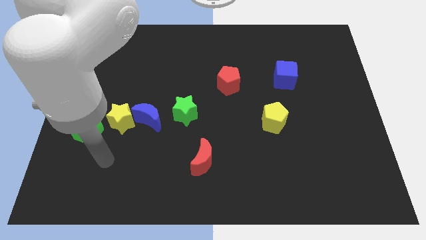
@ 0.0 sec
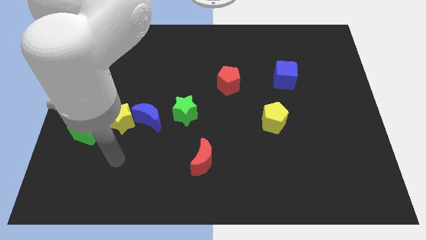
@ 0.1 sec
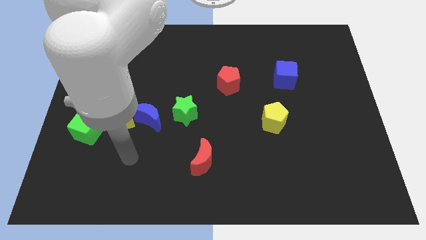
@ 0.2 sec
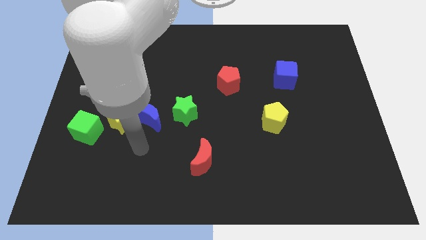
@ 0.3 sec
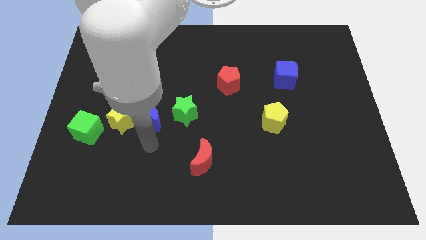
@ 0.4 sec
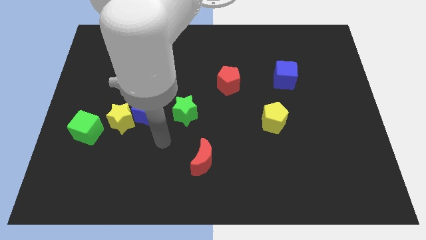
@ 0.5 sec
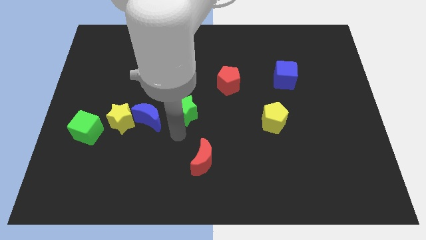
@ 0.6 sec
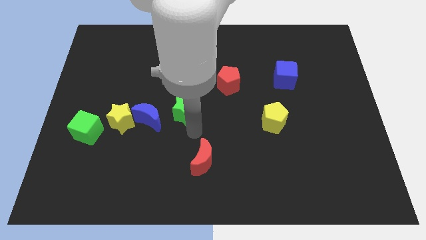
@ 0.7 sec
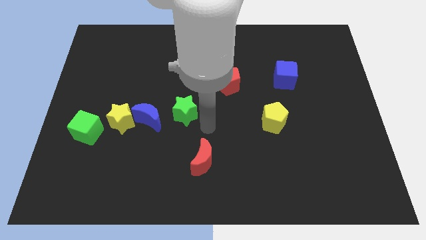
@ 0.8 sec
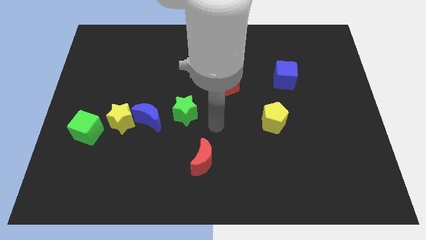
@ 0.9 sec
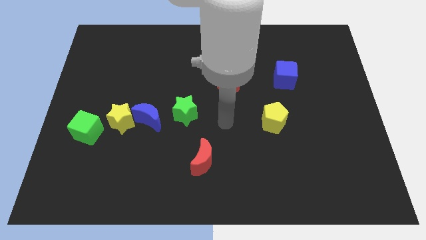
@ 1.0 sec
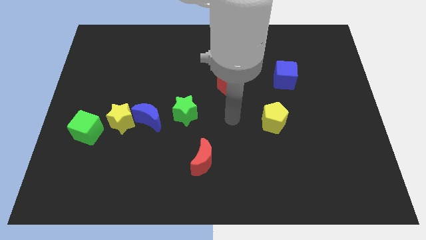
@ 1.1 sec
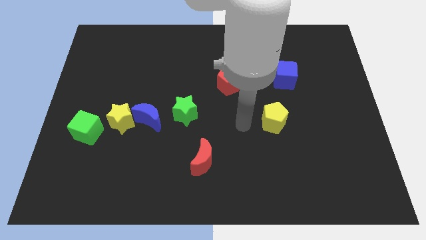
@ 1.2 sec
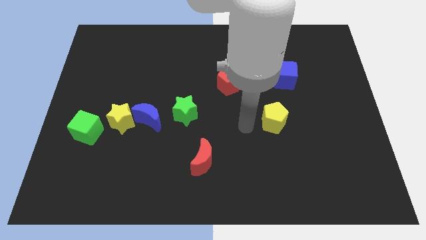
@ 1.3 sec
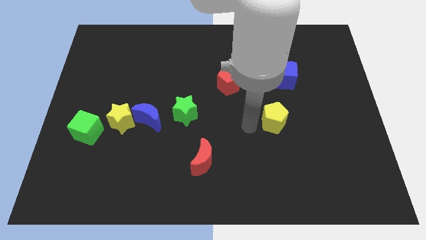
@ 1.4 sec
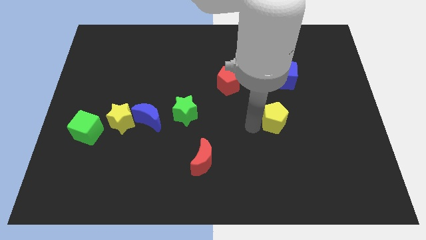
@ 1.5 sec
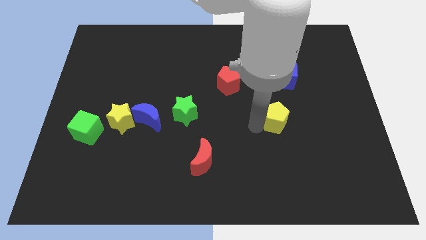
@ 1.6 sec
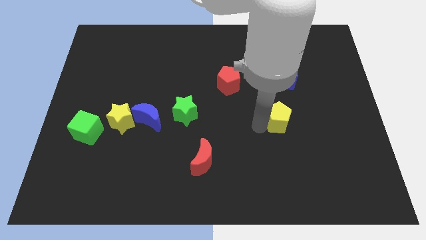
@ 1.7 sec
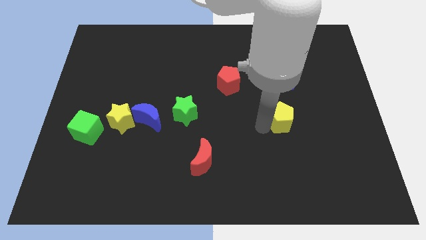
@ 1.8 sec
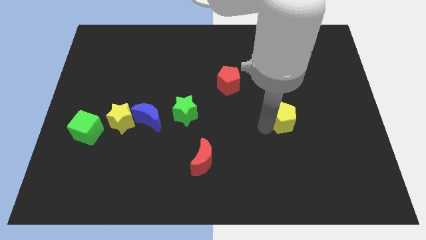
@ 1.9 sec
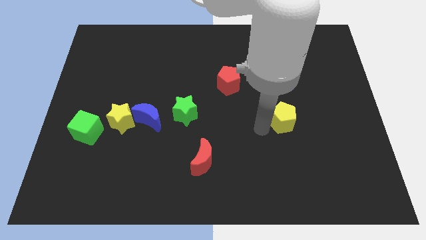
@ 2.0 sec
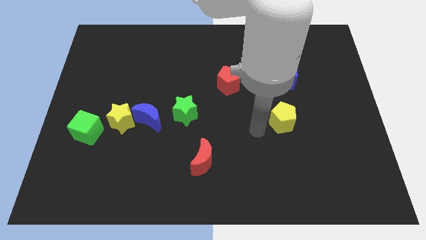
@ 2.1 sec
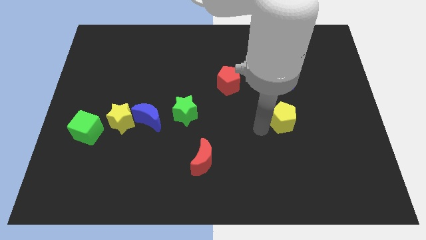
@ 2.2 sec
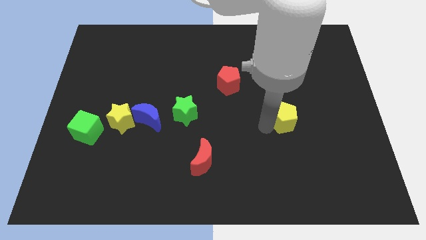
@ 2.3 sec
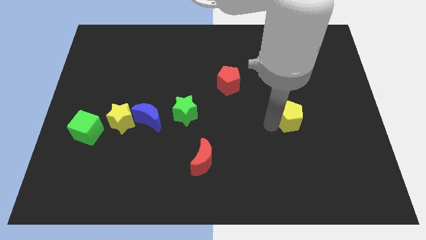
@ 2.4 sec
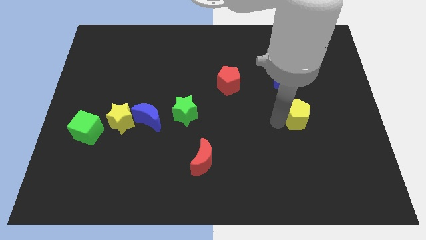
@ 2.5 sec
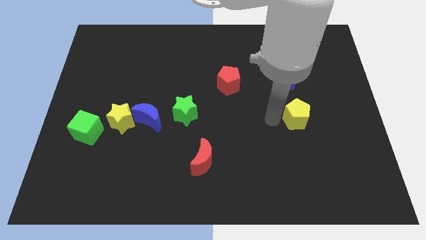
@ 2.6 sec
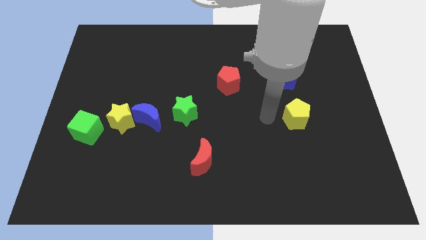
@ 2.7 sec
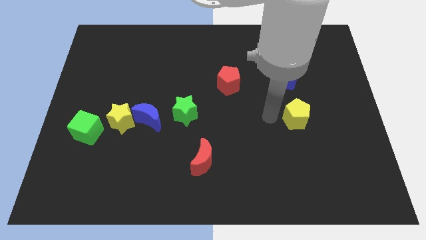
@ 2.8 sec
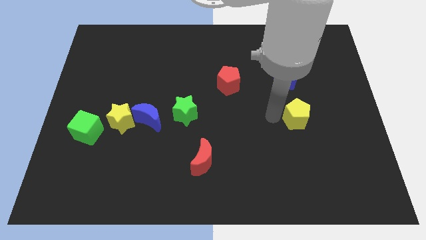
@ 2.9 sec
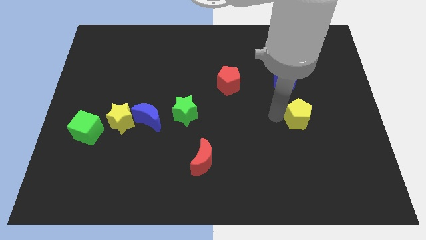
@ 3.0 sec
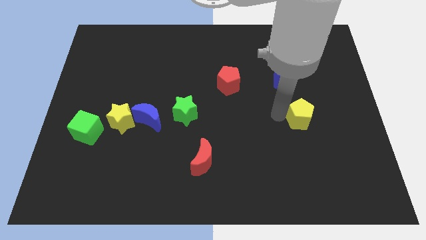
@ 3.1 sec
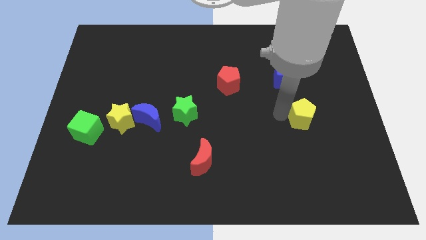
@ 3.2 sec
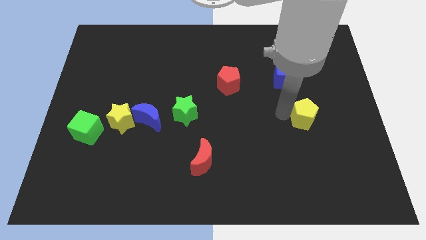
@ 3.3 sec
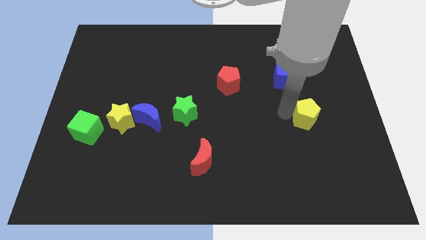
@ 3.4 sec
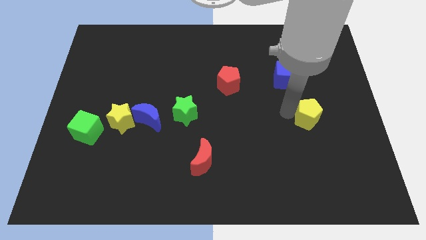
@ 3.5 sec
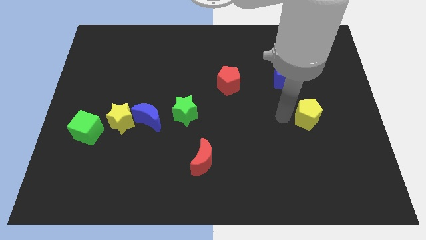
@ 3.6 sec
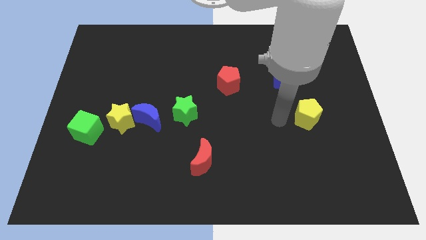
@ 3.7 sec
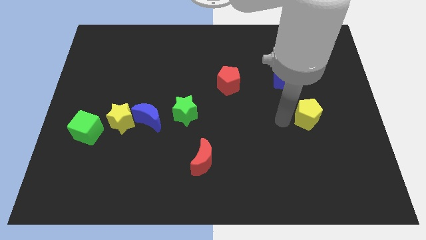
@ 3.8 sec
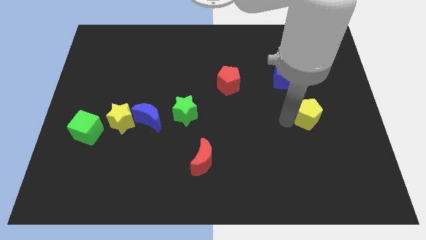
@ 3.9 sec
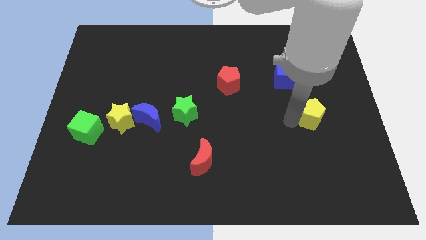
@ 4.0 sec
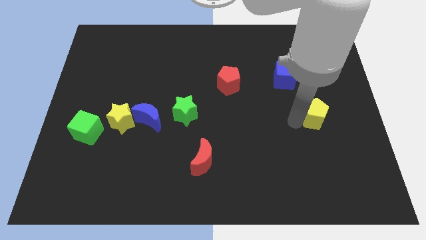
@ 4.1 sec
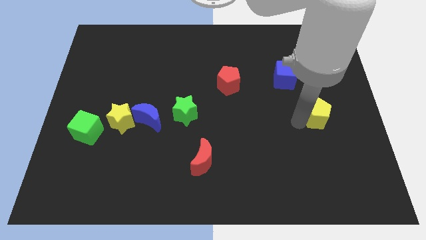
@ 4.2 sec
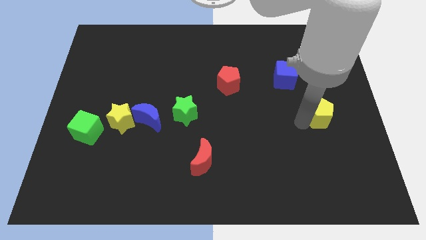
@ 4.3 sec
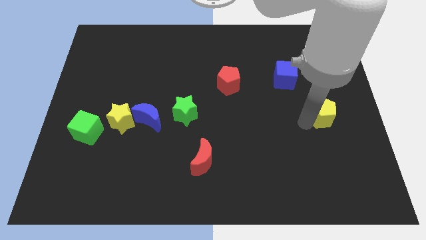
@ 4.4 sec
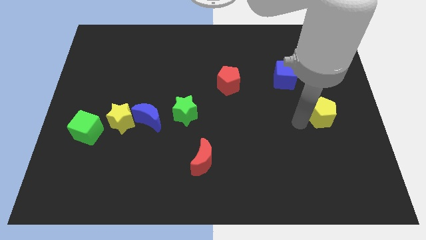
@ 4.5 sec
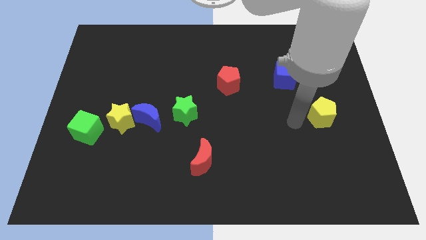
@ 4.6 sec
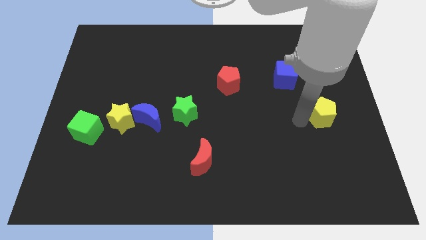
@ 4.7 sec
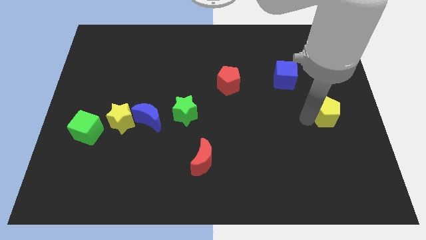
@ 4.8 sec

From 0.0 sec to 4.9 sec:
slide the yellow pentagon to the right side

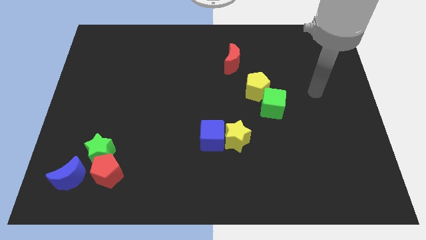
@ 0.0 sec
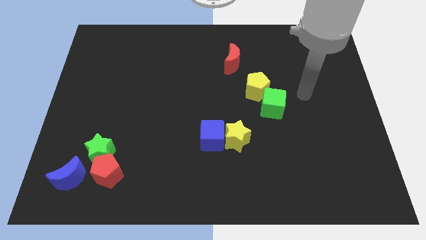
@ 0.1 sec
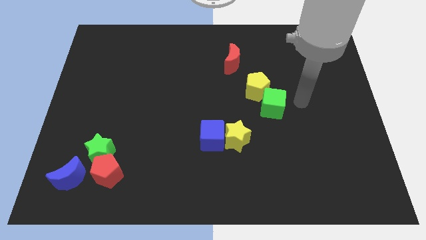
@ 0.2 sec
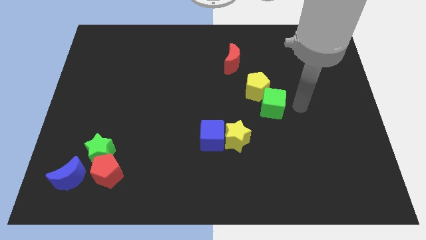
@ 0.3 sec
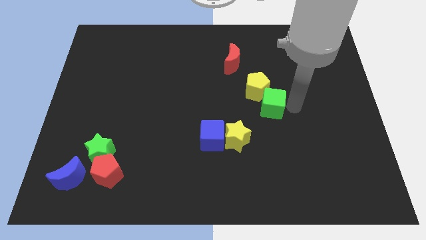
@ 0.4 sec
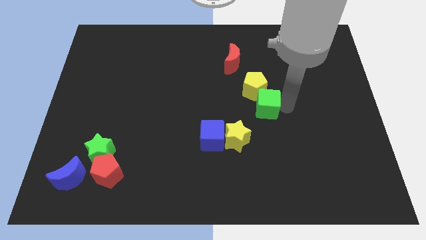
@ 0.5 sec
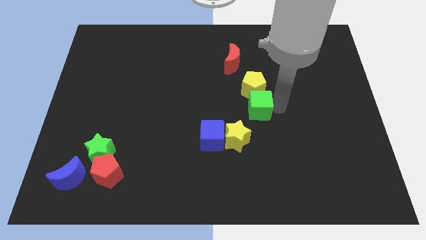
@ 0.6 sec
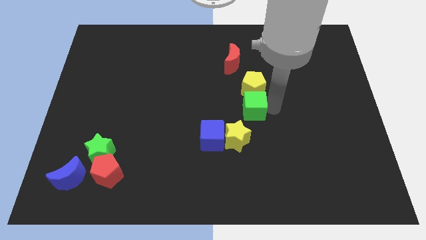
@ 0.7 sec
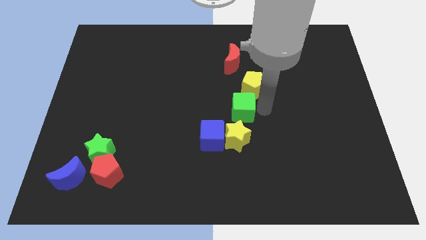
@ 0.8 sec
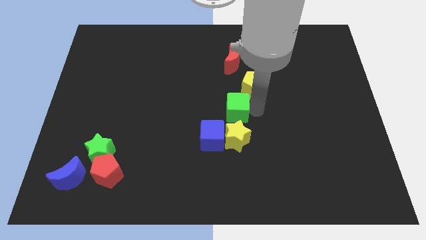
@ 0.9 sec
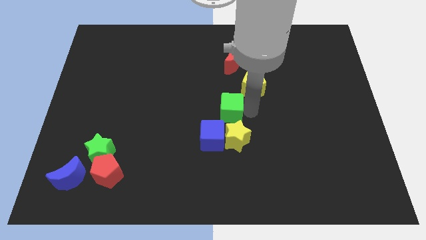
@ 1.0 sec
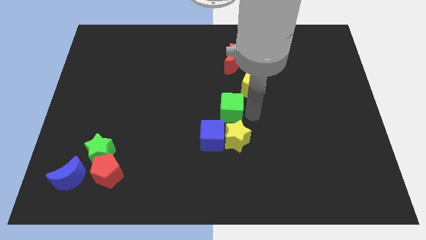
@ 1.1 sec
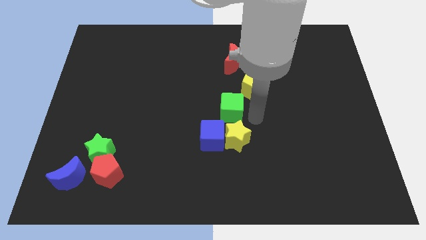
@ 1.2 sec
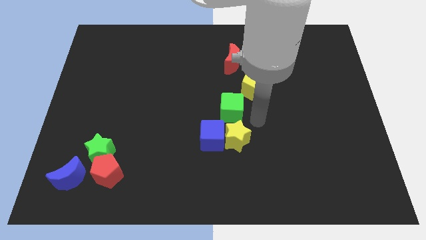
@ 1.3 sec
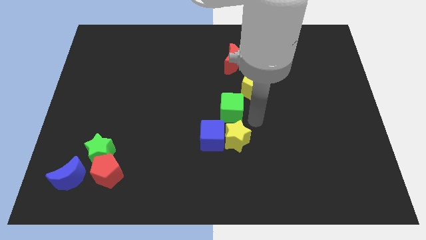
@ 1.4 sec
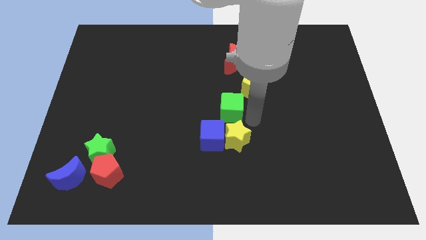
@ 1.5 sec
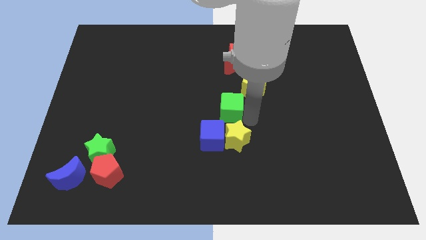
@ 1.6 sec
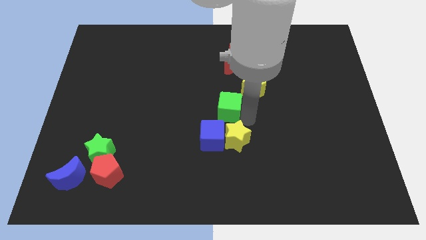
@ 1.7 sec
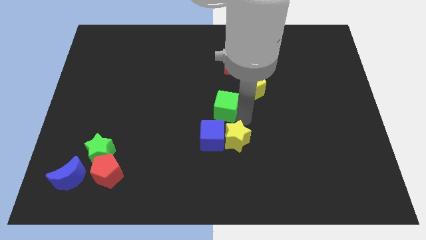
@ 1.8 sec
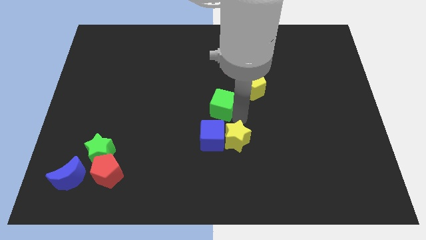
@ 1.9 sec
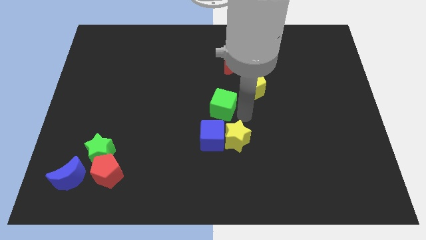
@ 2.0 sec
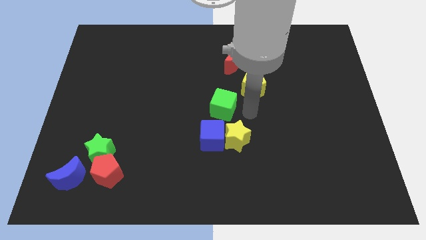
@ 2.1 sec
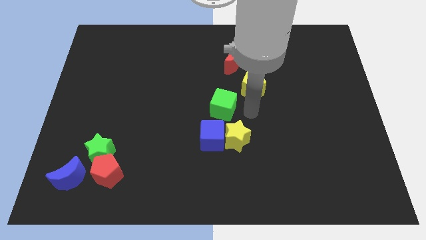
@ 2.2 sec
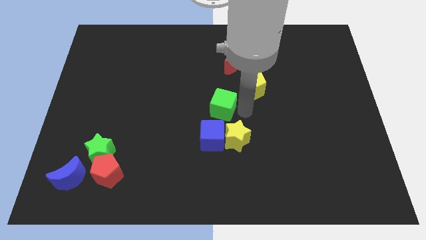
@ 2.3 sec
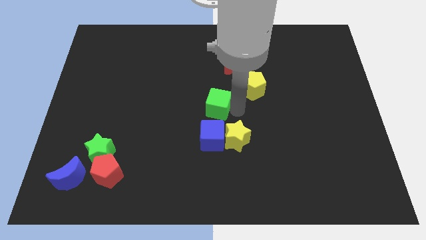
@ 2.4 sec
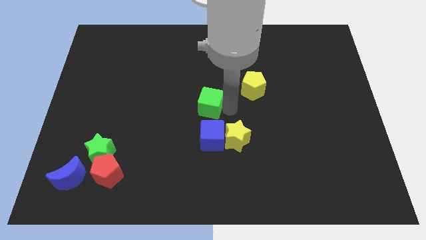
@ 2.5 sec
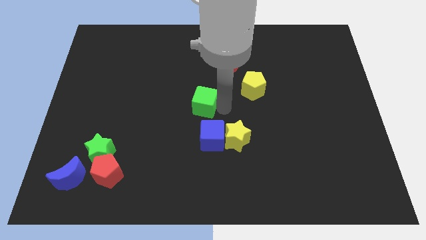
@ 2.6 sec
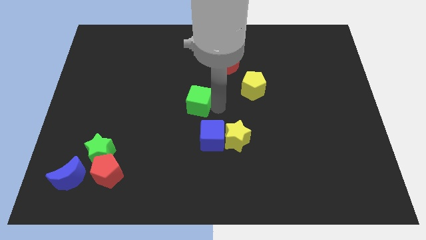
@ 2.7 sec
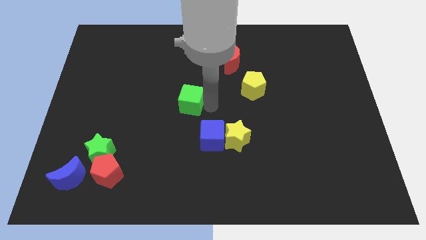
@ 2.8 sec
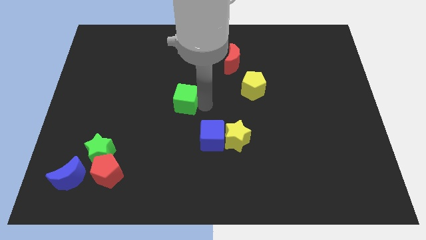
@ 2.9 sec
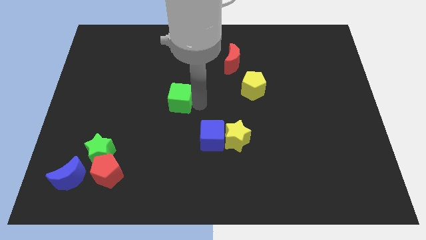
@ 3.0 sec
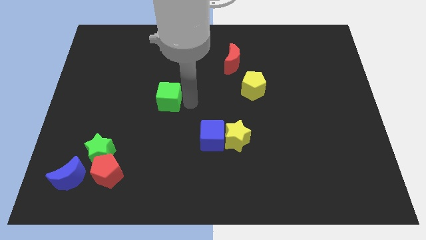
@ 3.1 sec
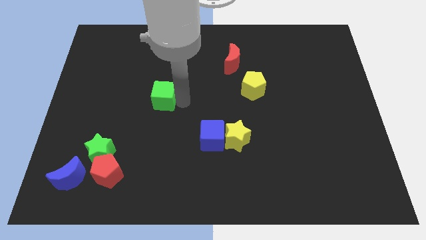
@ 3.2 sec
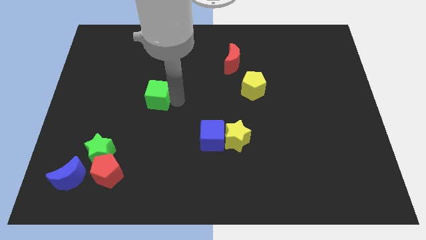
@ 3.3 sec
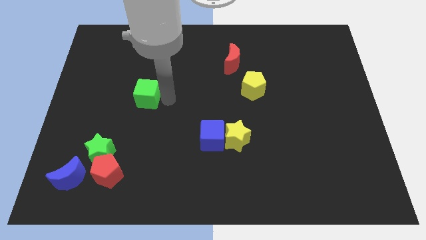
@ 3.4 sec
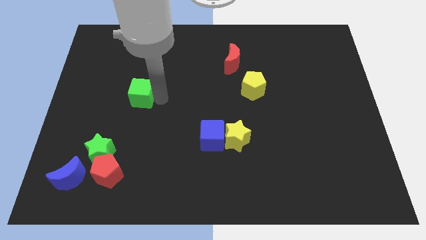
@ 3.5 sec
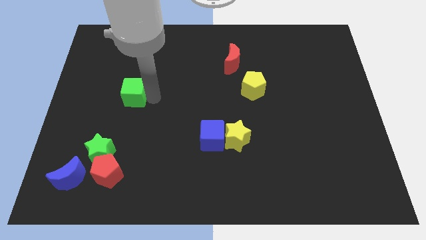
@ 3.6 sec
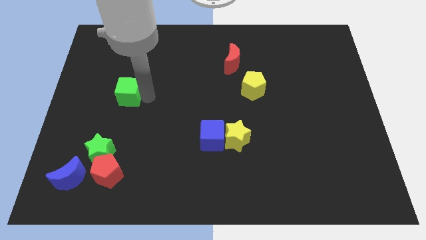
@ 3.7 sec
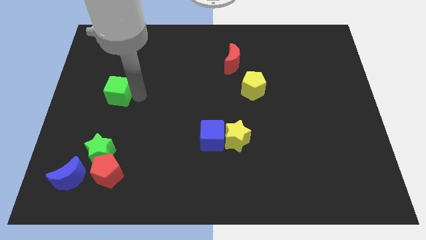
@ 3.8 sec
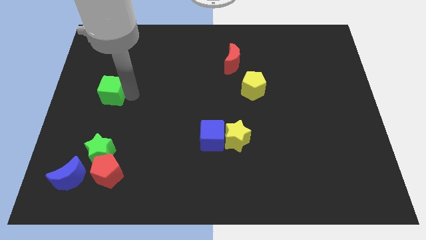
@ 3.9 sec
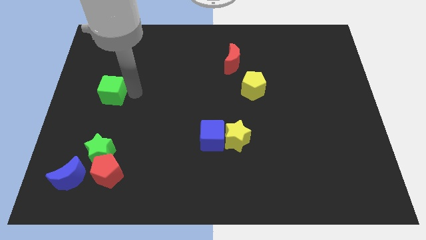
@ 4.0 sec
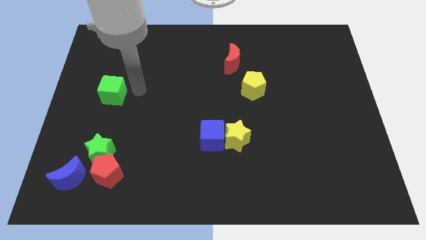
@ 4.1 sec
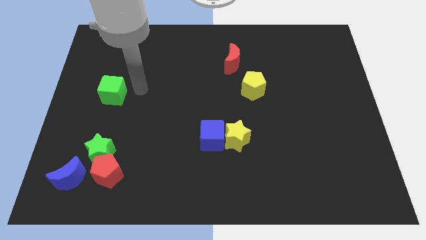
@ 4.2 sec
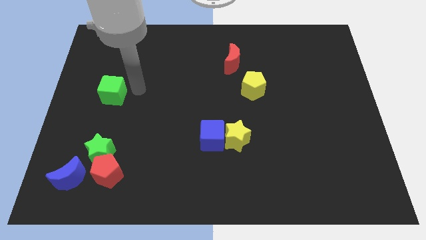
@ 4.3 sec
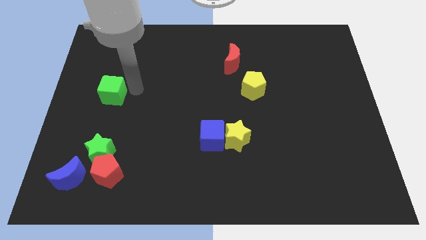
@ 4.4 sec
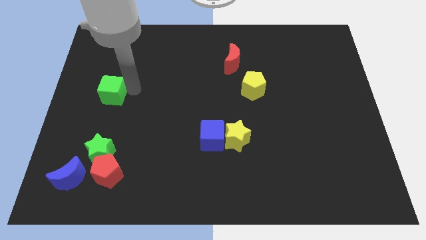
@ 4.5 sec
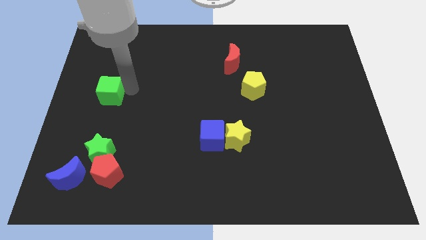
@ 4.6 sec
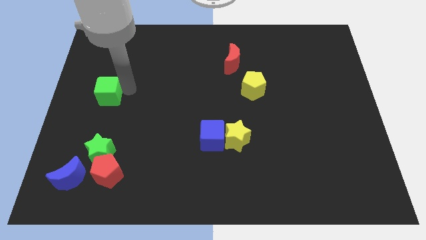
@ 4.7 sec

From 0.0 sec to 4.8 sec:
move the green cube to the left side of the board
